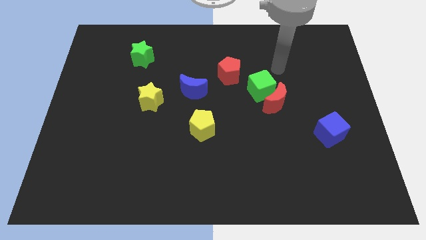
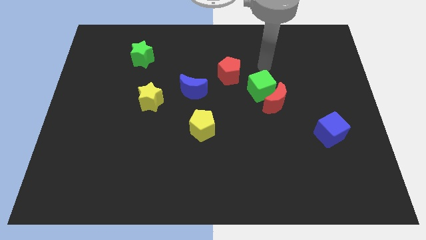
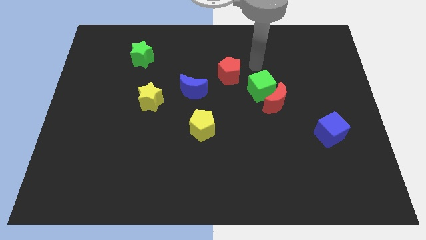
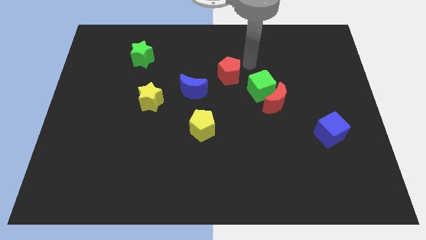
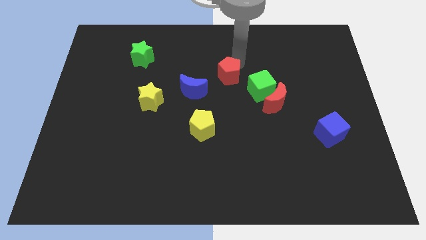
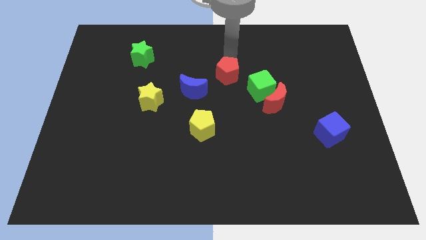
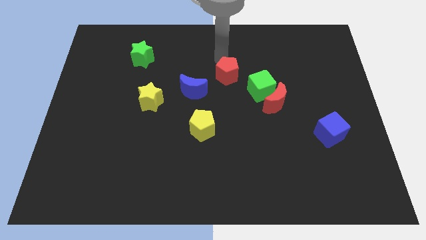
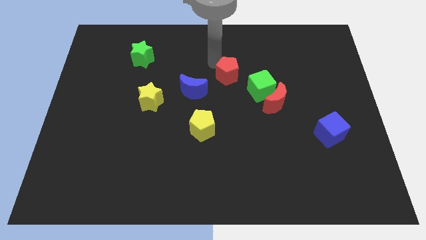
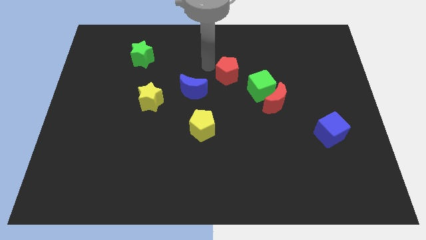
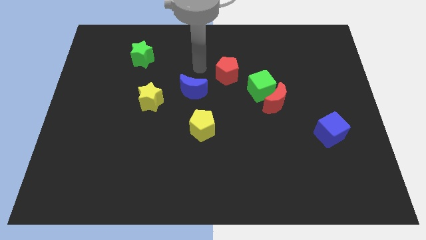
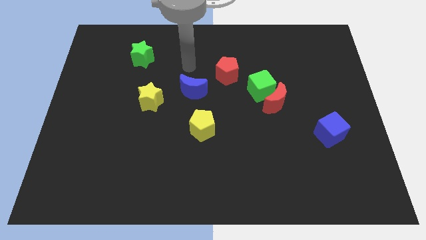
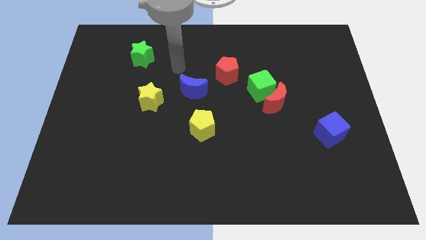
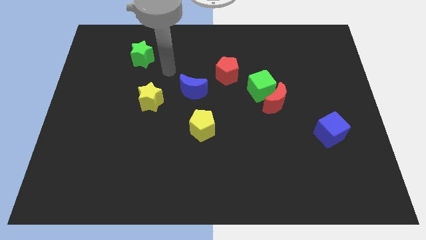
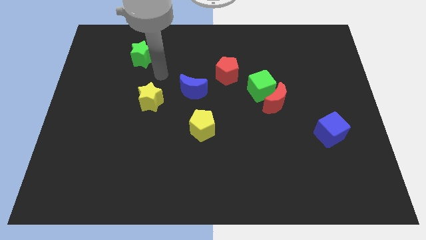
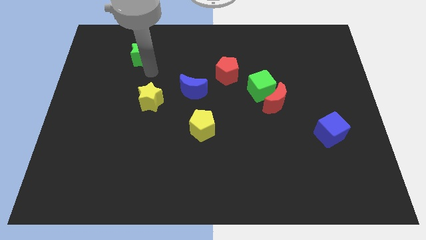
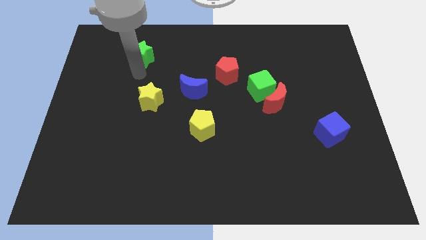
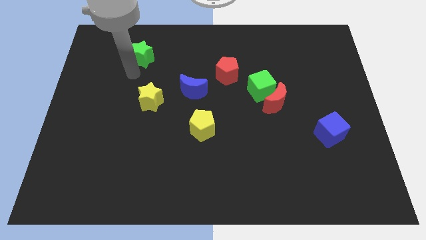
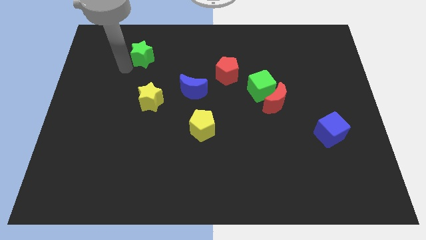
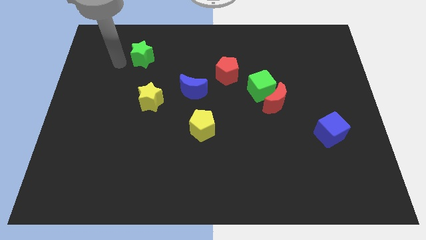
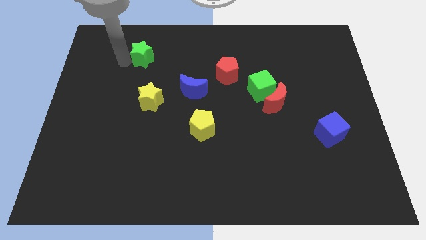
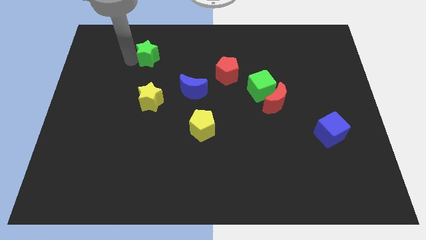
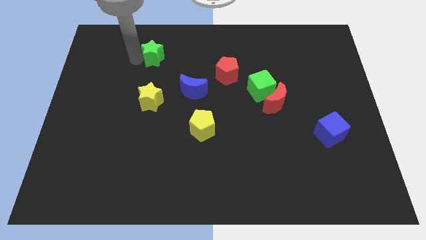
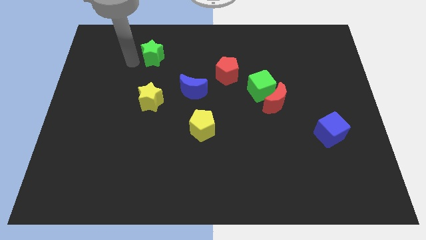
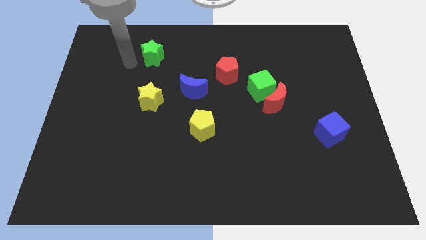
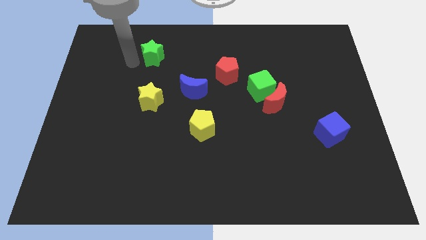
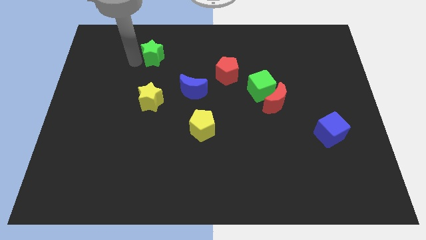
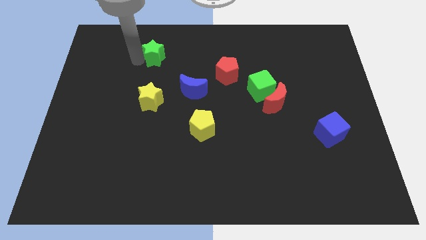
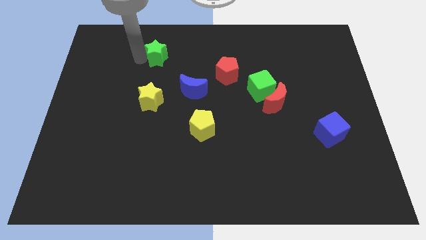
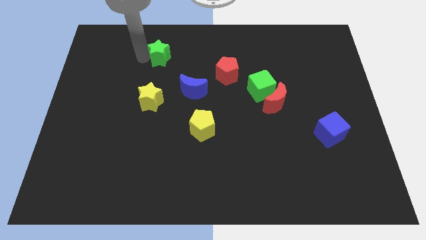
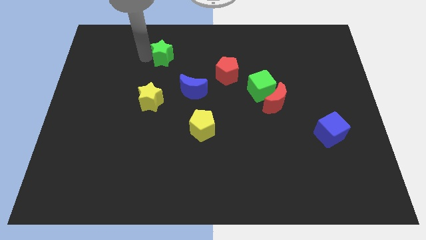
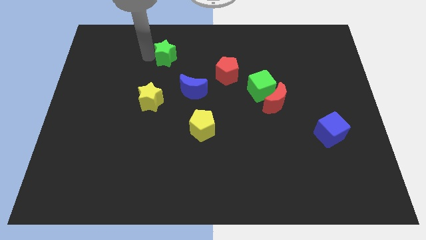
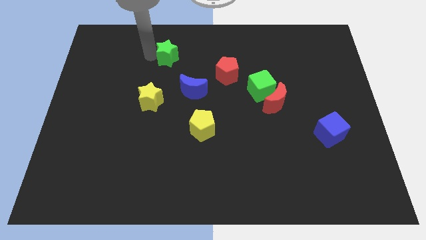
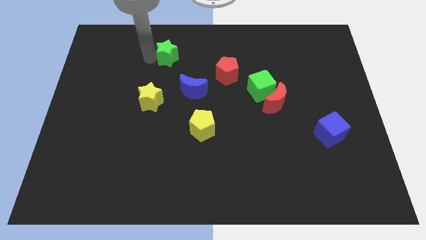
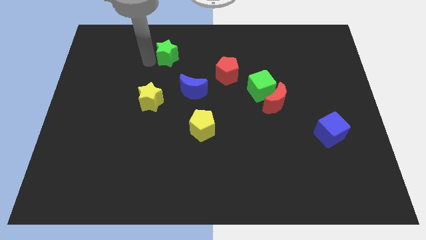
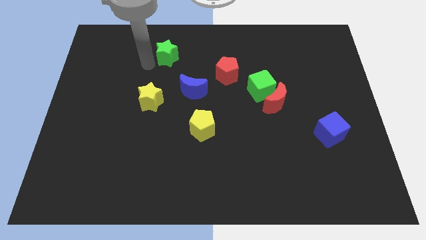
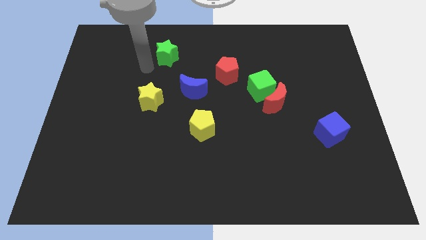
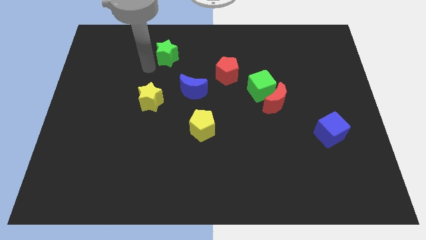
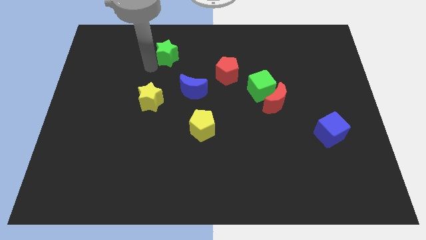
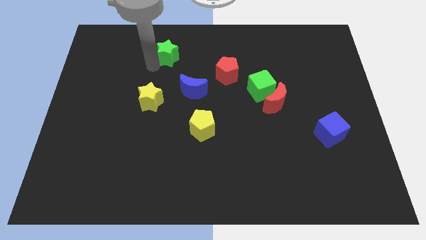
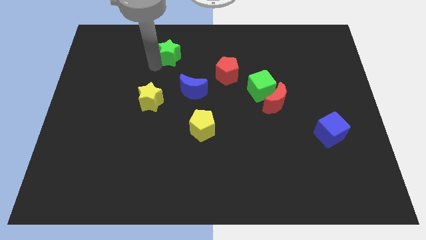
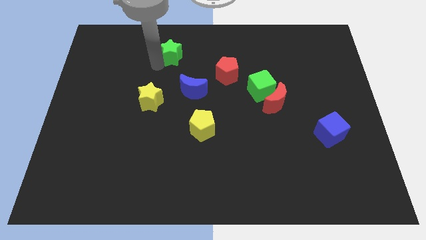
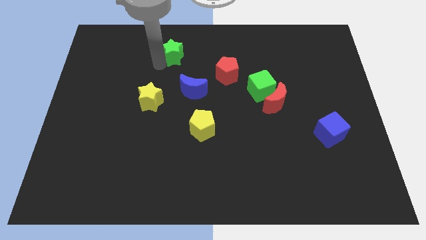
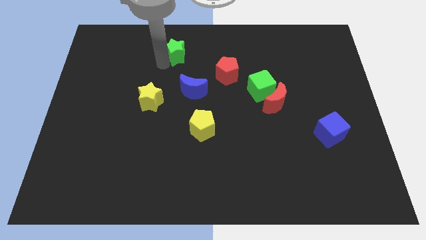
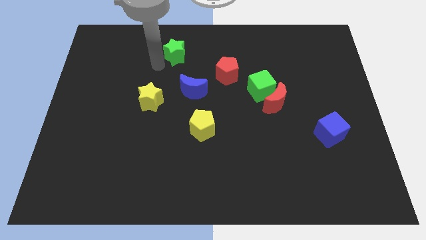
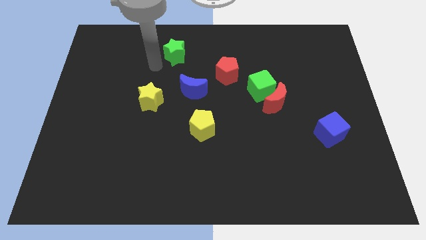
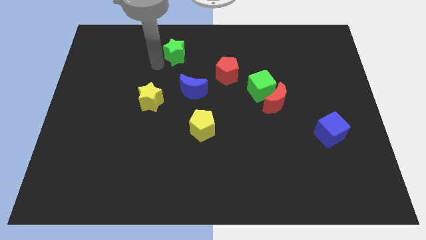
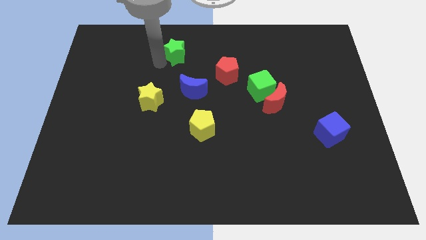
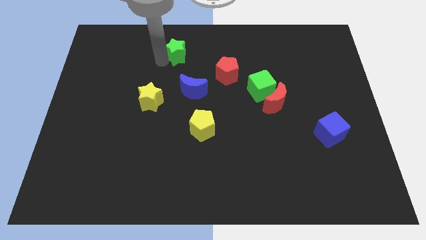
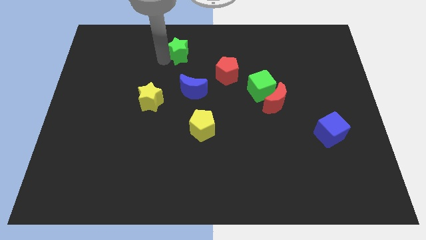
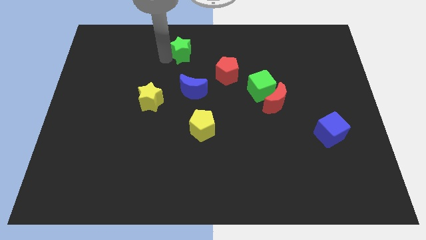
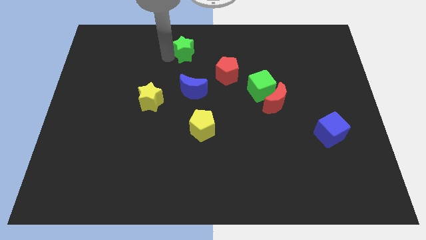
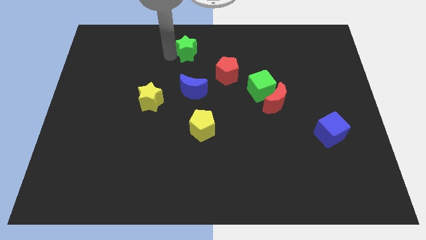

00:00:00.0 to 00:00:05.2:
push the green star to the top

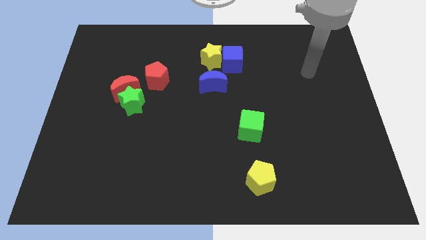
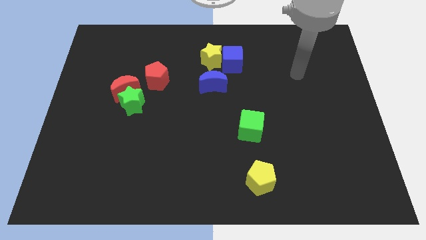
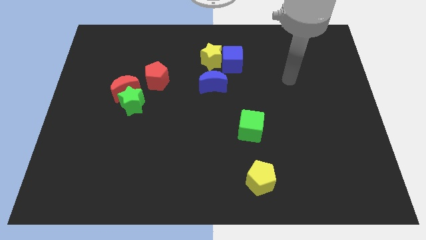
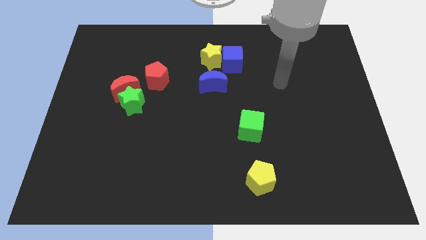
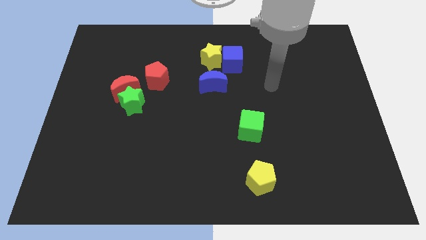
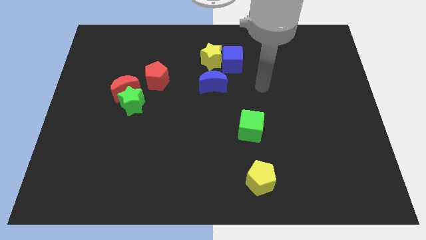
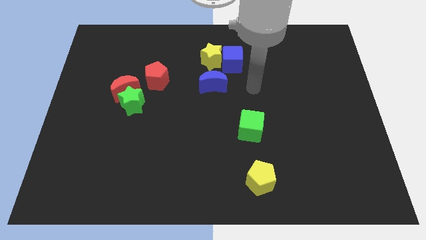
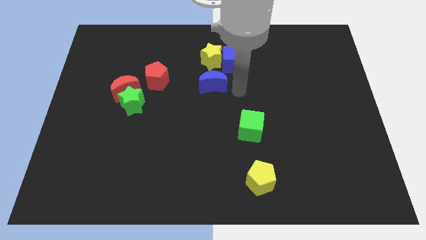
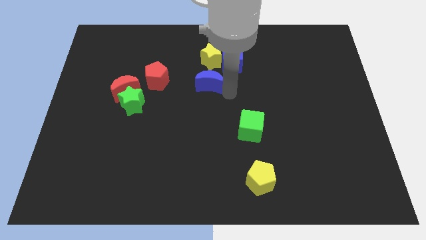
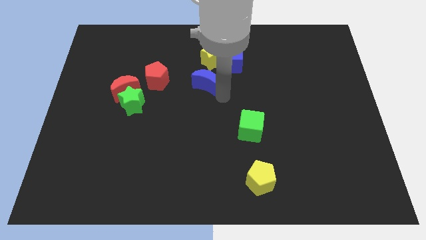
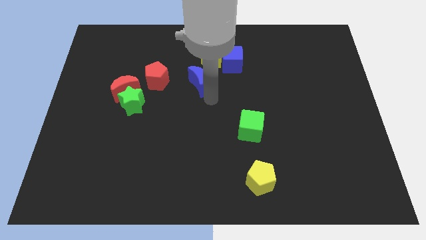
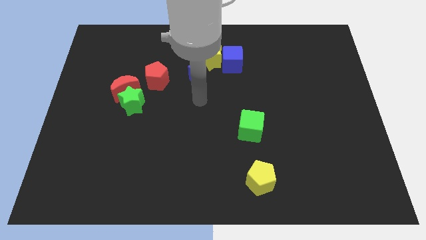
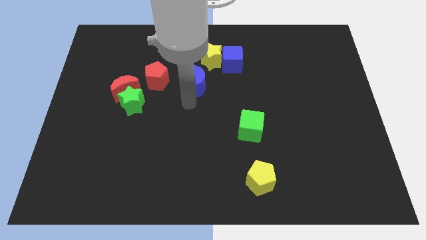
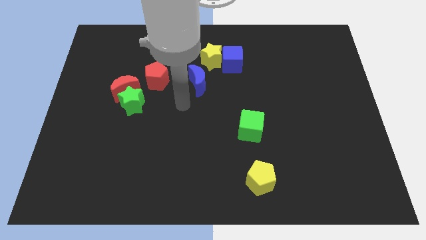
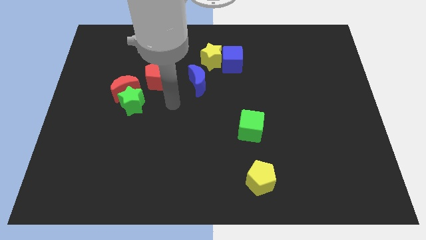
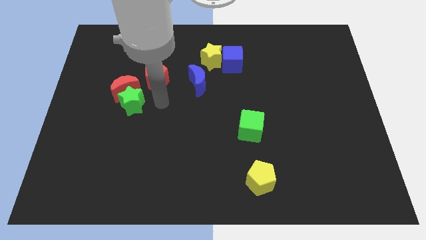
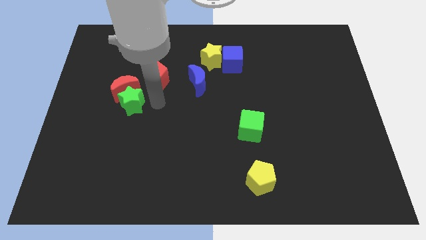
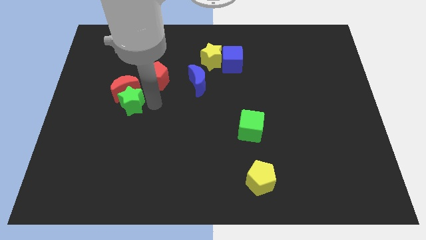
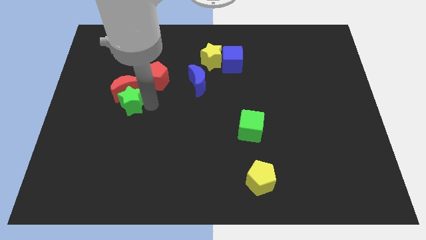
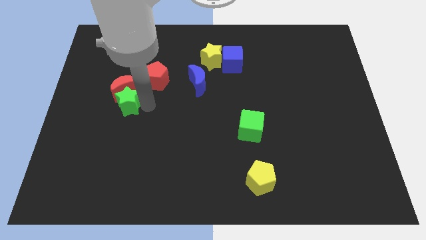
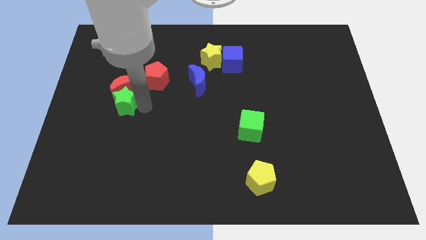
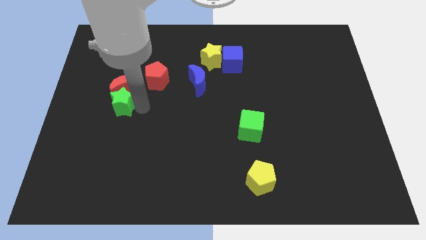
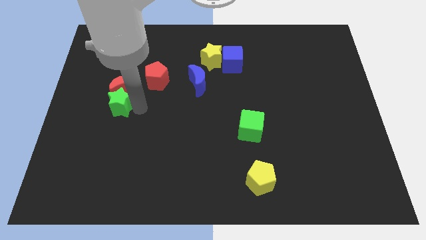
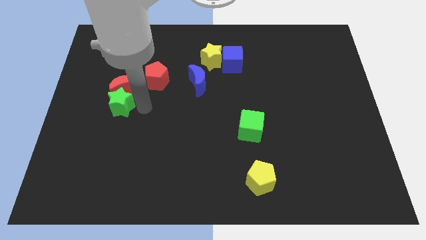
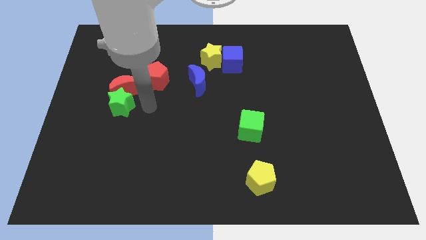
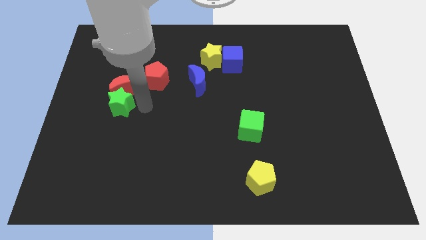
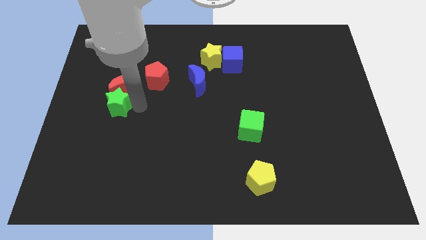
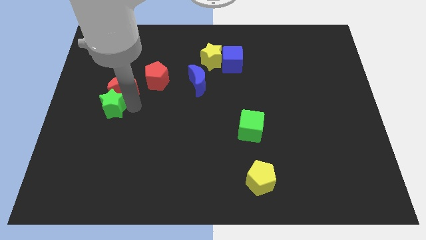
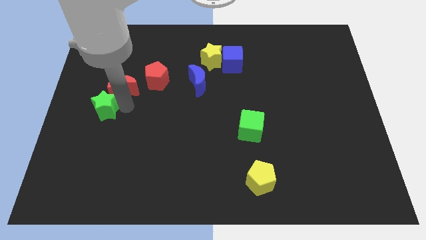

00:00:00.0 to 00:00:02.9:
push the green star to the center left
